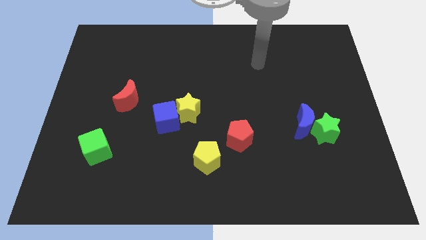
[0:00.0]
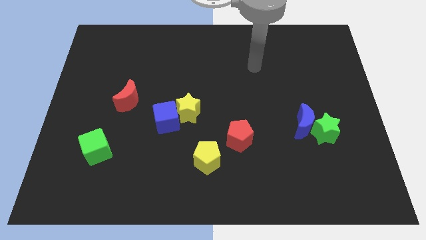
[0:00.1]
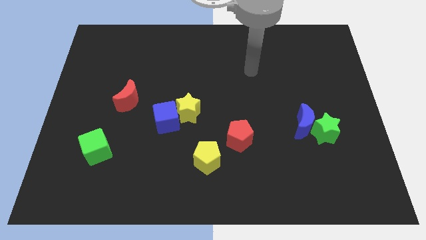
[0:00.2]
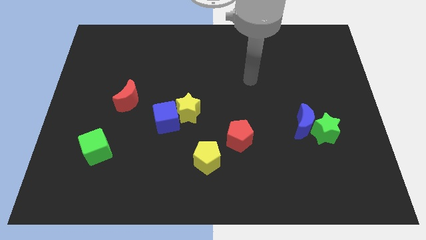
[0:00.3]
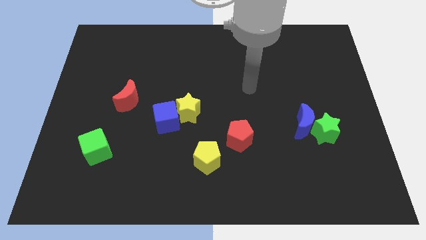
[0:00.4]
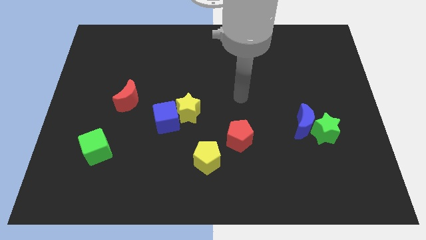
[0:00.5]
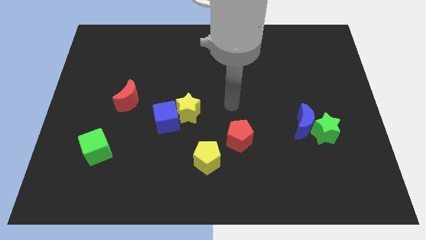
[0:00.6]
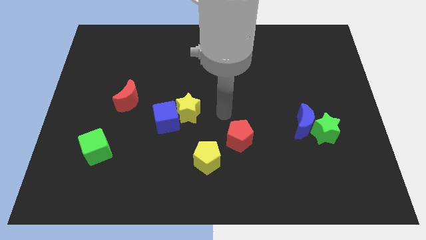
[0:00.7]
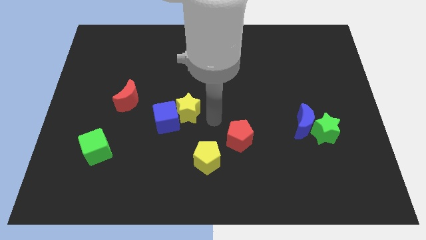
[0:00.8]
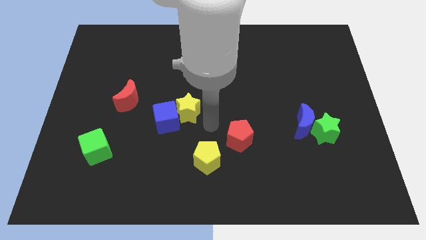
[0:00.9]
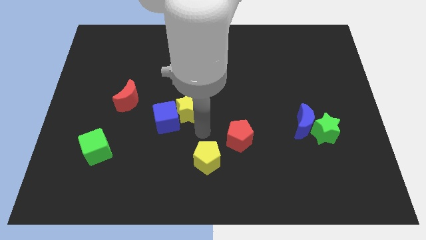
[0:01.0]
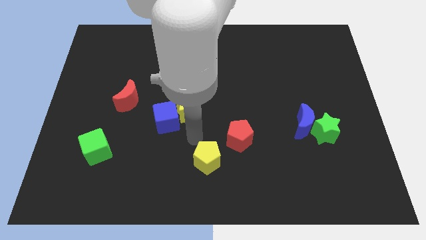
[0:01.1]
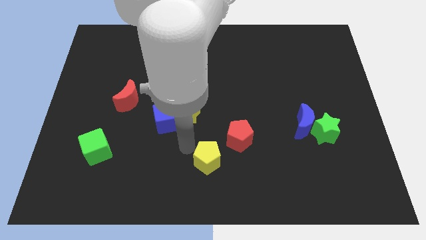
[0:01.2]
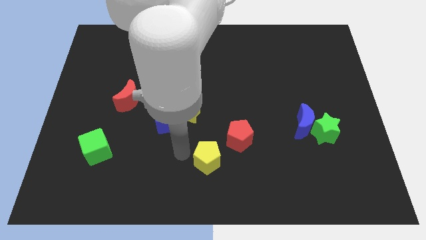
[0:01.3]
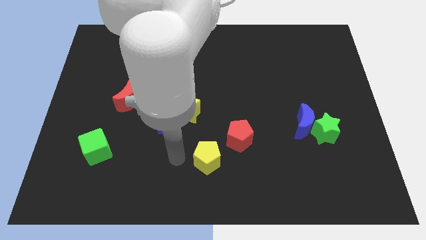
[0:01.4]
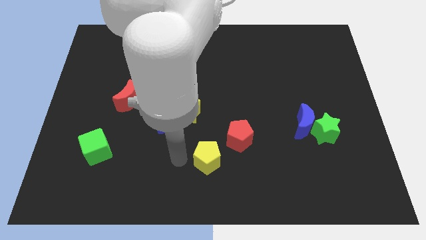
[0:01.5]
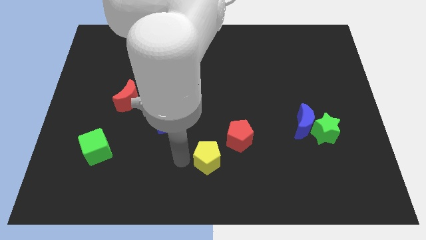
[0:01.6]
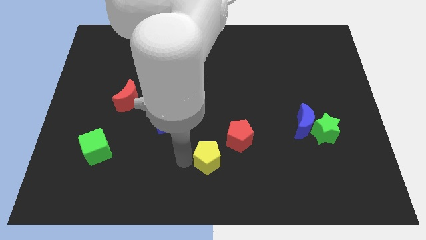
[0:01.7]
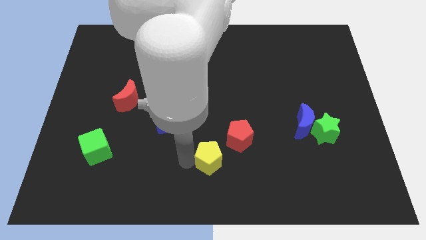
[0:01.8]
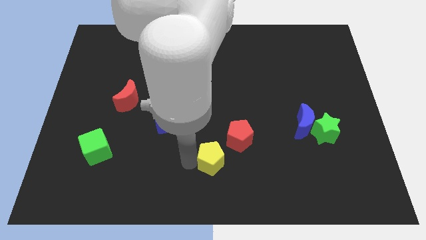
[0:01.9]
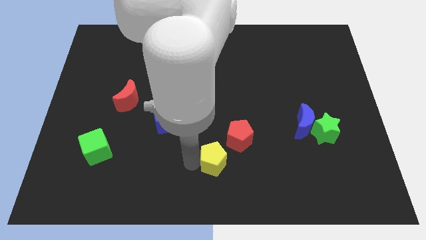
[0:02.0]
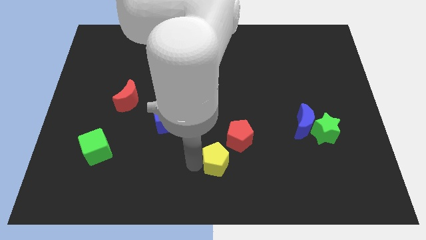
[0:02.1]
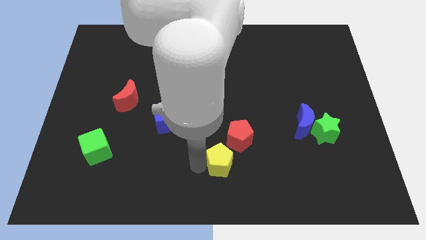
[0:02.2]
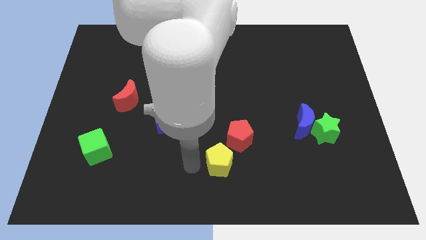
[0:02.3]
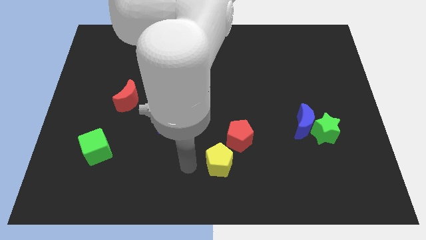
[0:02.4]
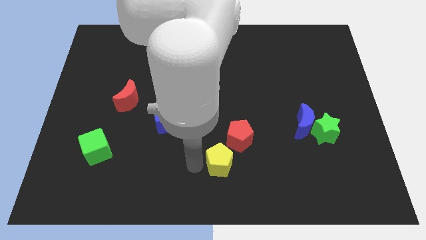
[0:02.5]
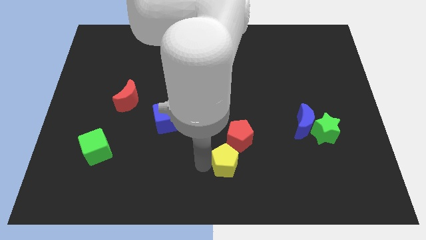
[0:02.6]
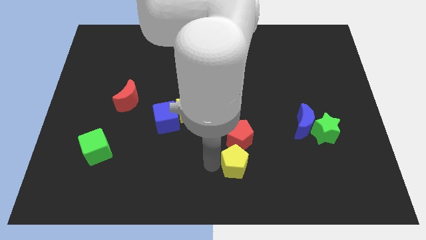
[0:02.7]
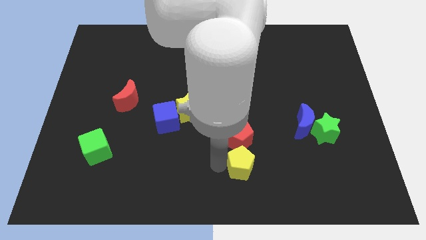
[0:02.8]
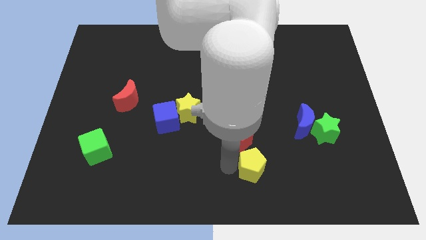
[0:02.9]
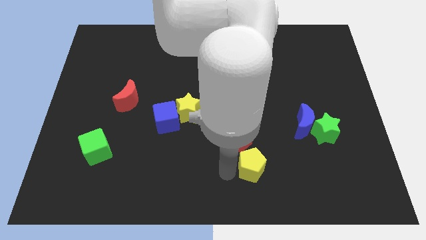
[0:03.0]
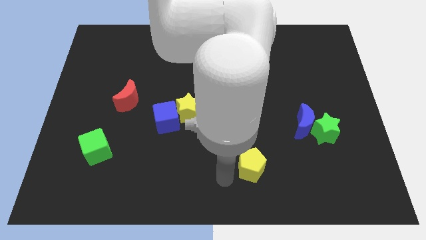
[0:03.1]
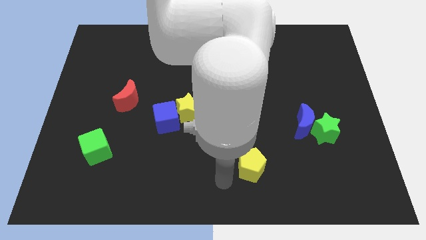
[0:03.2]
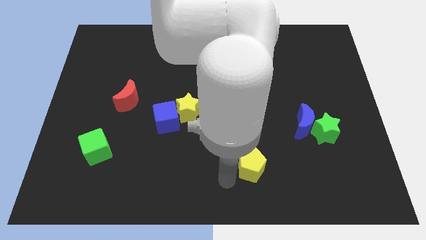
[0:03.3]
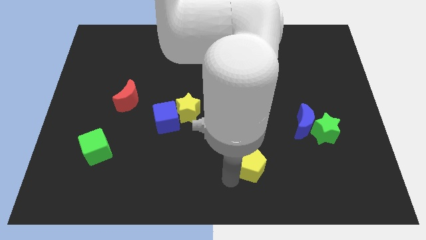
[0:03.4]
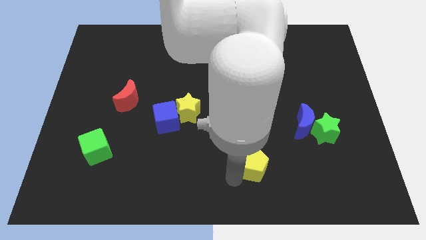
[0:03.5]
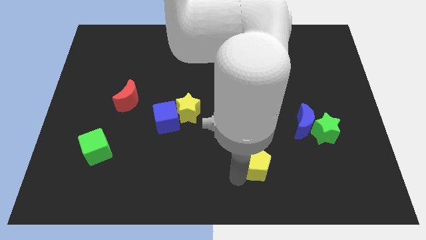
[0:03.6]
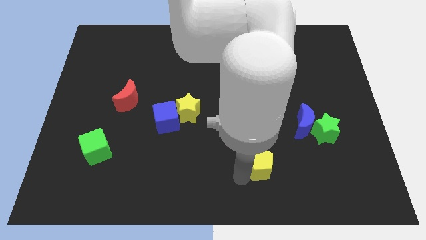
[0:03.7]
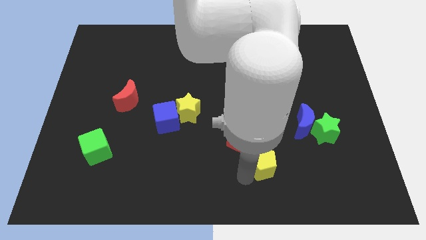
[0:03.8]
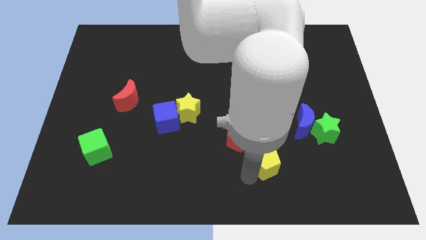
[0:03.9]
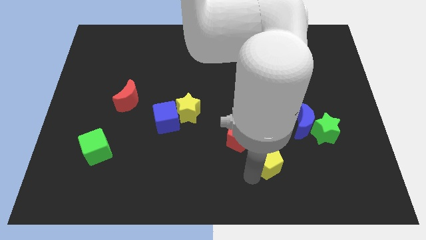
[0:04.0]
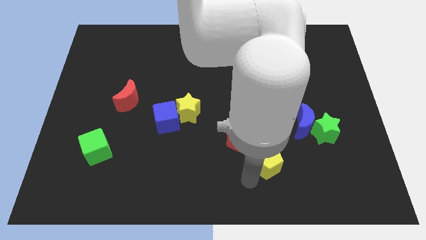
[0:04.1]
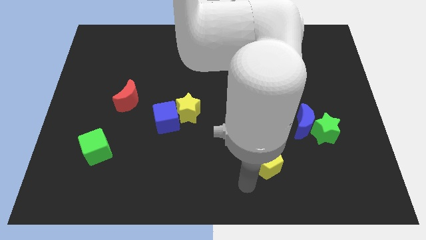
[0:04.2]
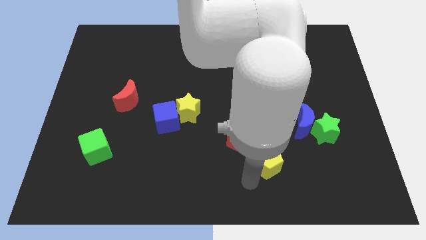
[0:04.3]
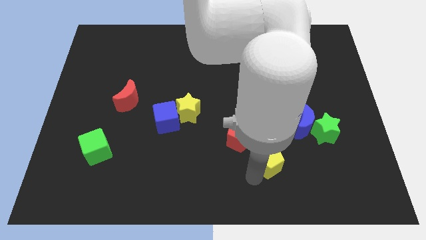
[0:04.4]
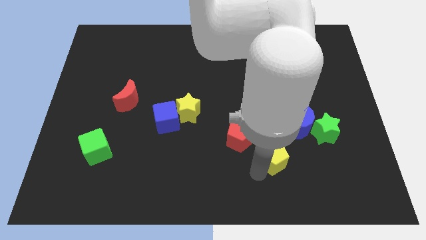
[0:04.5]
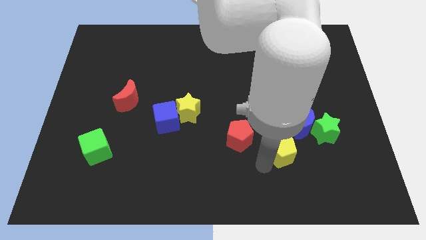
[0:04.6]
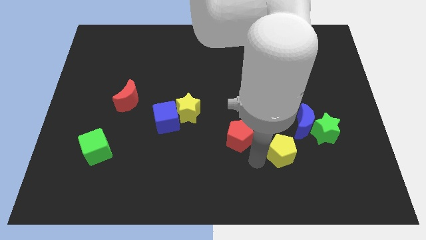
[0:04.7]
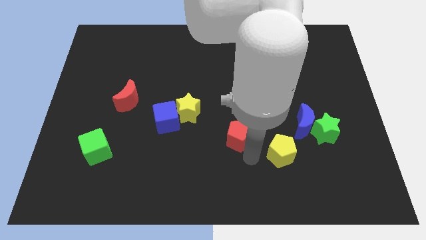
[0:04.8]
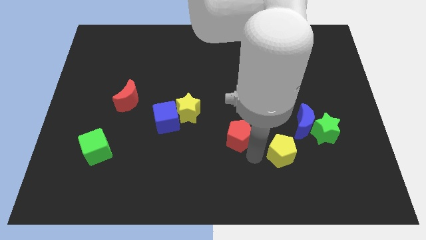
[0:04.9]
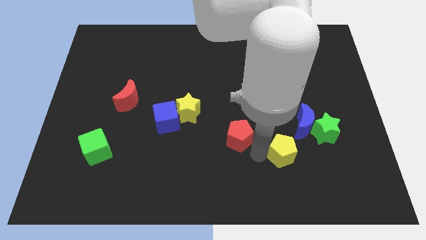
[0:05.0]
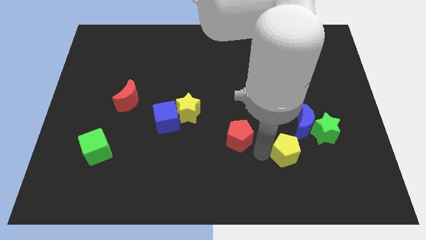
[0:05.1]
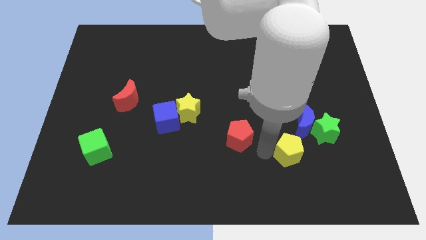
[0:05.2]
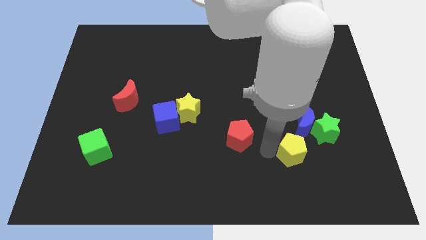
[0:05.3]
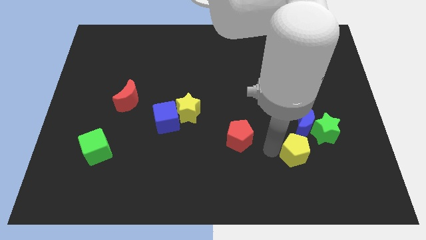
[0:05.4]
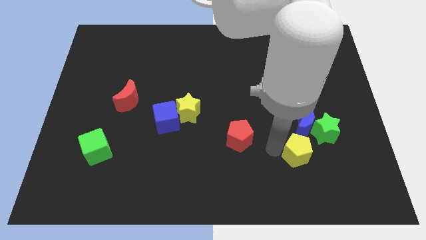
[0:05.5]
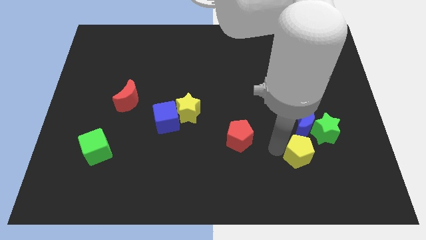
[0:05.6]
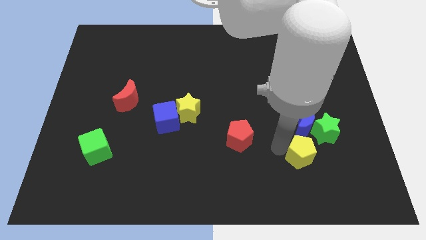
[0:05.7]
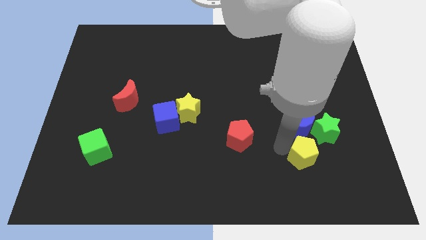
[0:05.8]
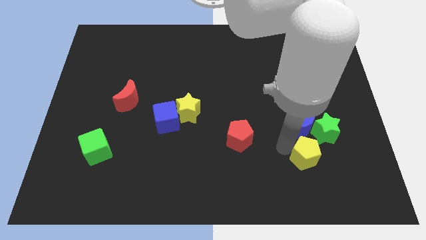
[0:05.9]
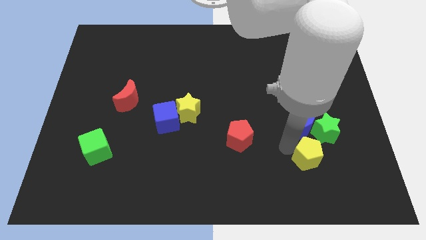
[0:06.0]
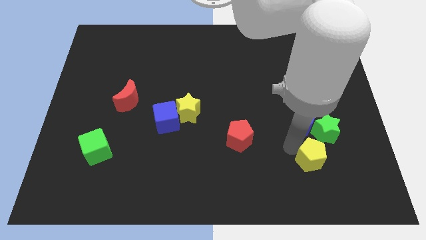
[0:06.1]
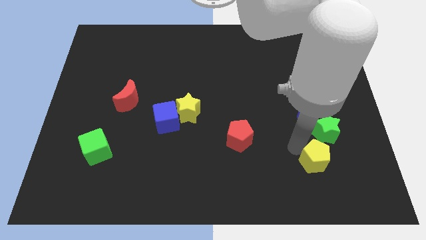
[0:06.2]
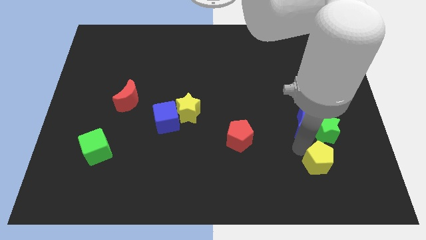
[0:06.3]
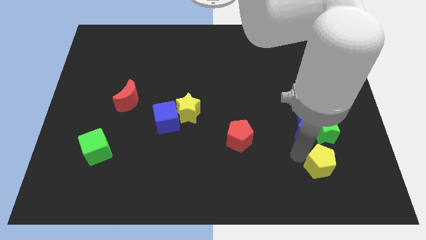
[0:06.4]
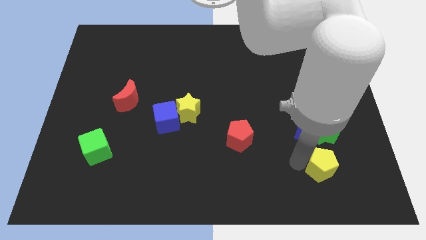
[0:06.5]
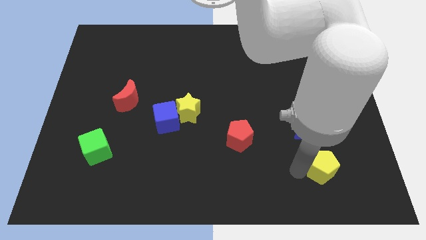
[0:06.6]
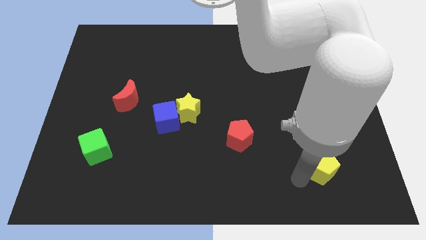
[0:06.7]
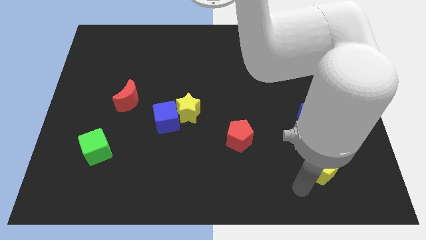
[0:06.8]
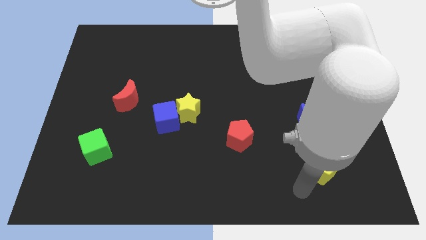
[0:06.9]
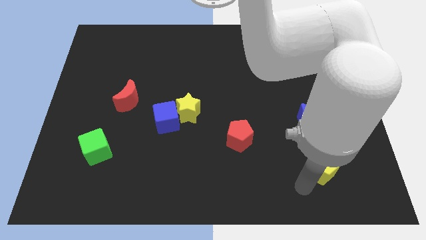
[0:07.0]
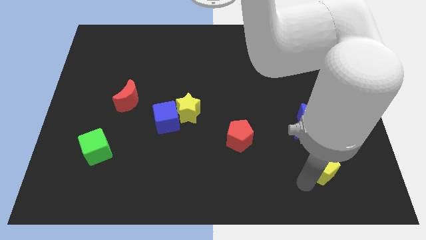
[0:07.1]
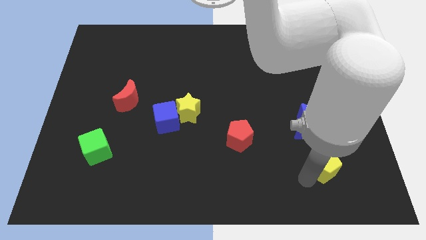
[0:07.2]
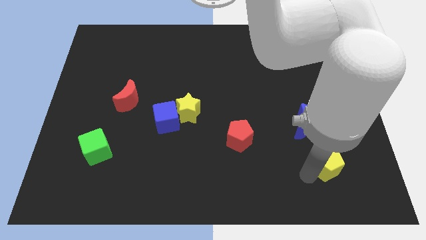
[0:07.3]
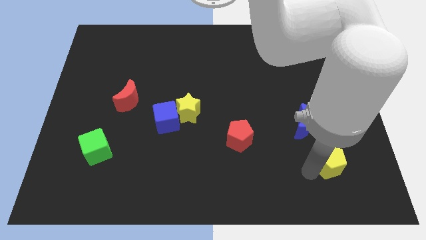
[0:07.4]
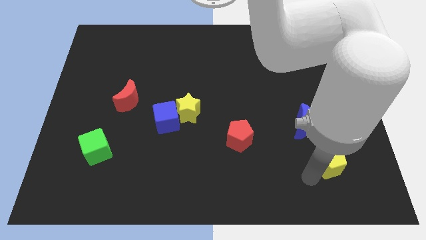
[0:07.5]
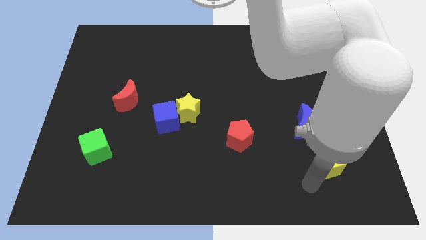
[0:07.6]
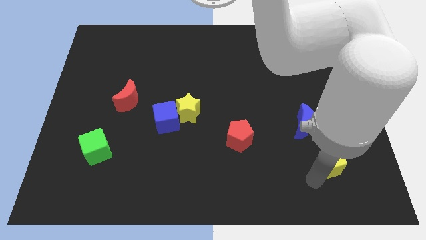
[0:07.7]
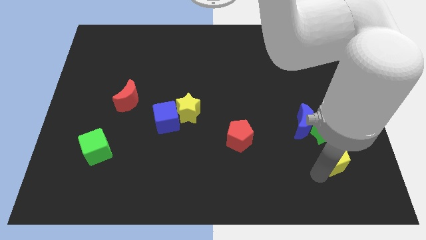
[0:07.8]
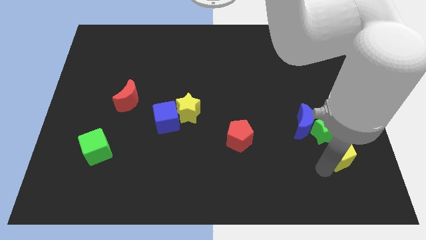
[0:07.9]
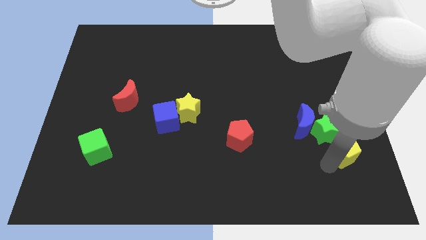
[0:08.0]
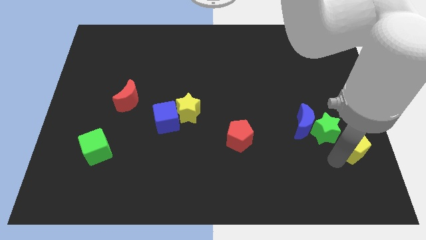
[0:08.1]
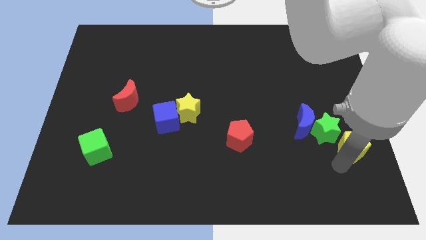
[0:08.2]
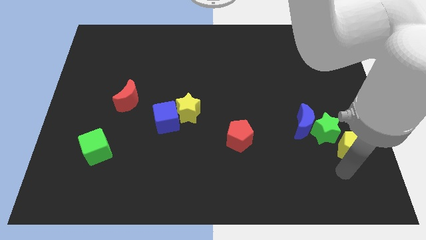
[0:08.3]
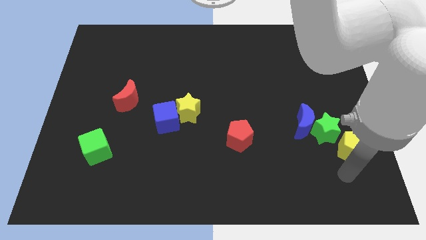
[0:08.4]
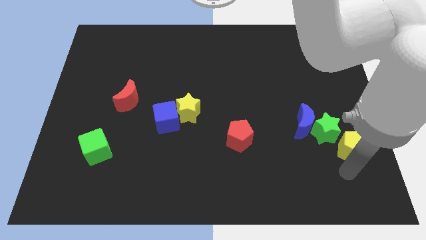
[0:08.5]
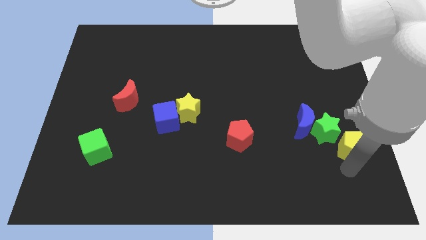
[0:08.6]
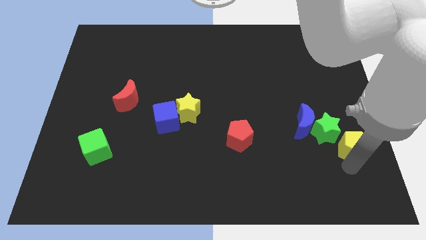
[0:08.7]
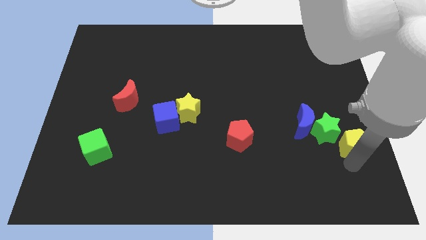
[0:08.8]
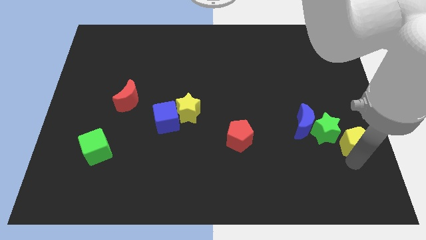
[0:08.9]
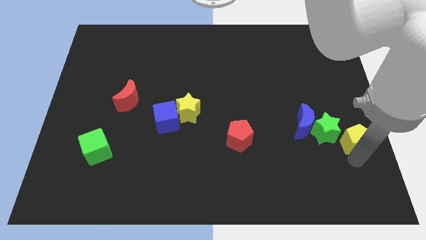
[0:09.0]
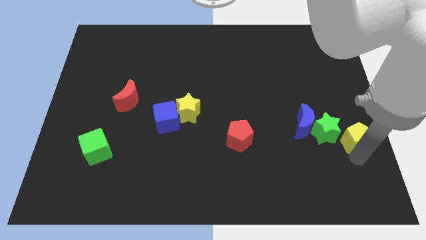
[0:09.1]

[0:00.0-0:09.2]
slide the yellow pentagon to the right side
